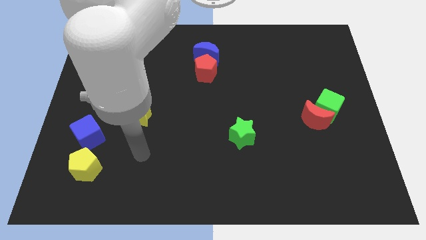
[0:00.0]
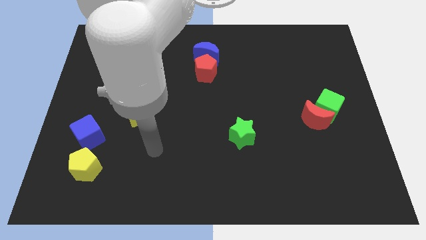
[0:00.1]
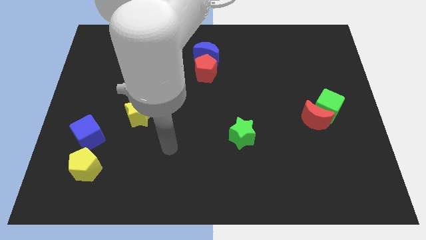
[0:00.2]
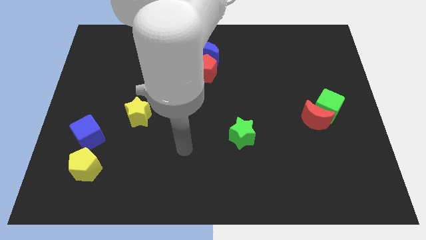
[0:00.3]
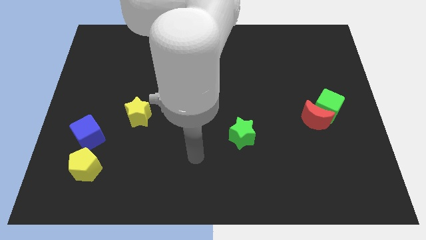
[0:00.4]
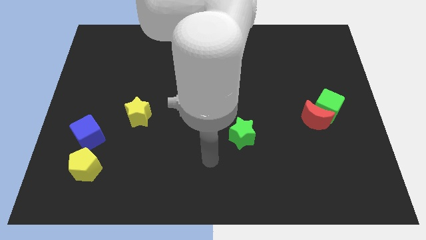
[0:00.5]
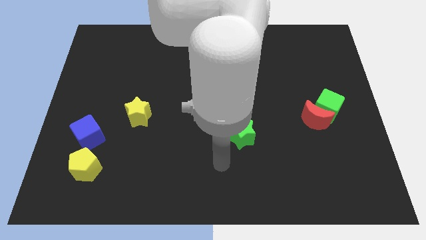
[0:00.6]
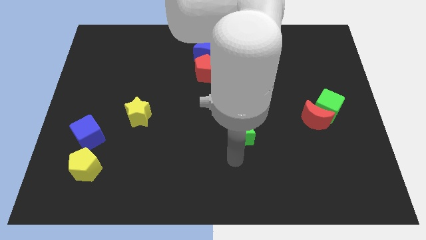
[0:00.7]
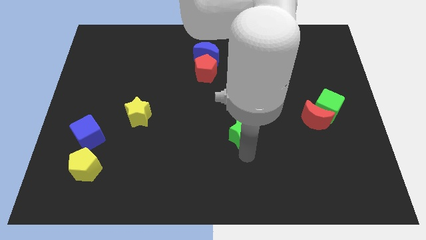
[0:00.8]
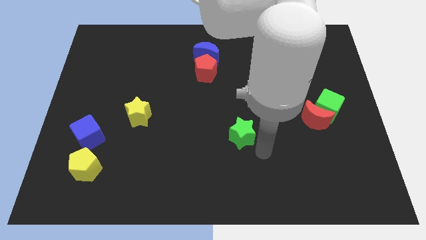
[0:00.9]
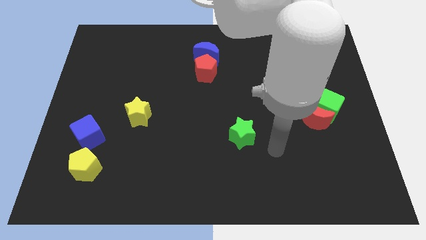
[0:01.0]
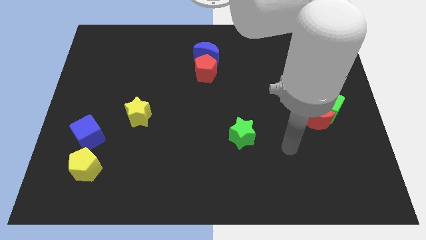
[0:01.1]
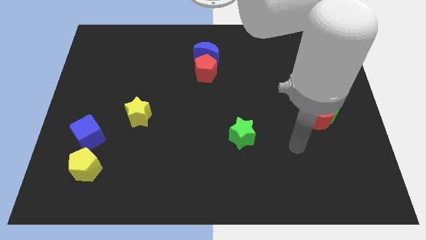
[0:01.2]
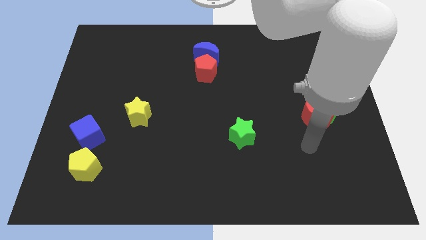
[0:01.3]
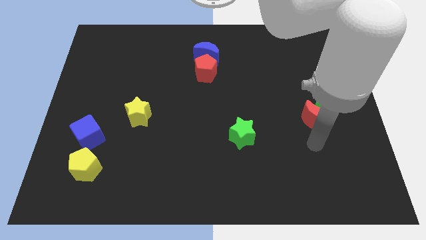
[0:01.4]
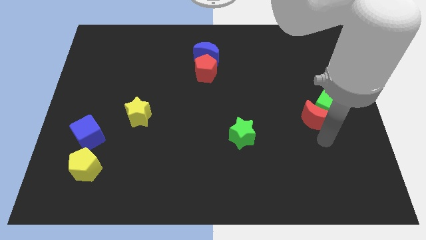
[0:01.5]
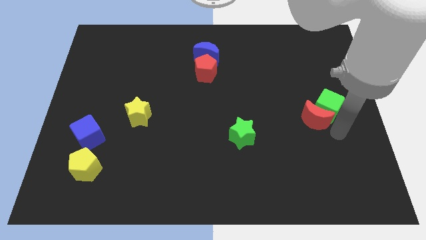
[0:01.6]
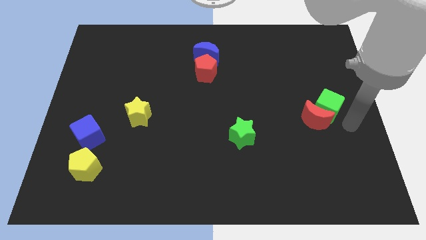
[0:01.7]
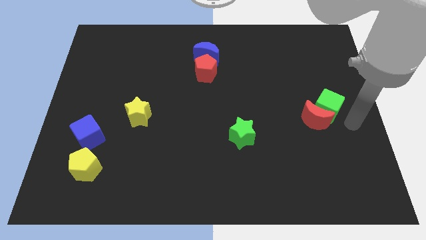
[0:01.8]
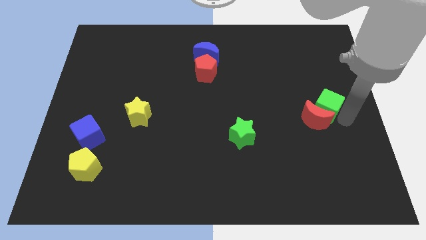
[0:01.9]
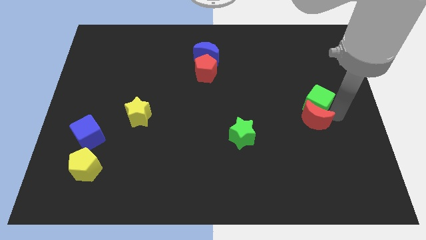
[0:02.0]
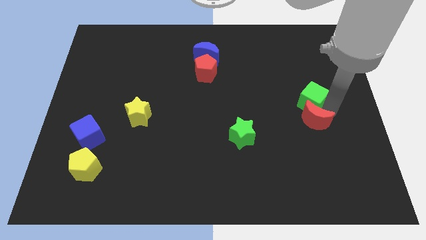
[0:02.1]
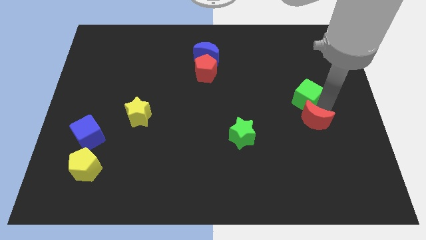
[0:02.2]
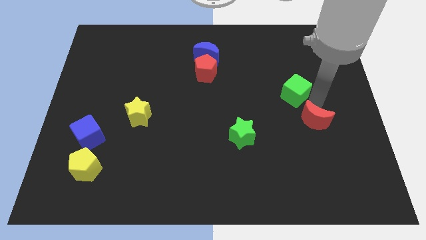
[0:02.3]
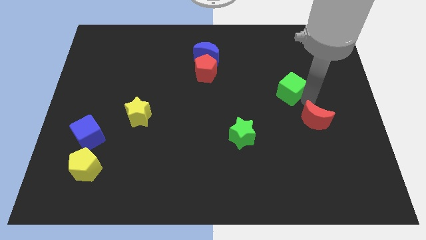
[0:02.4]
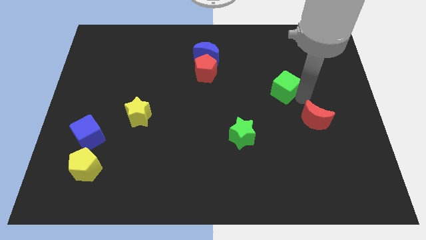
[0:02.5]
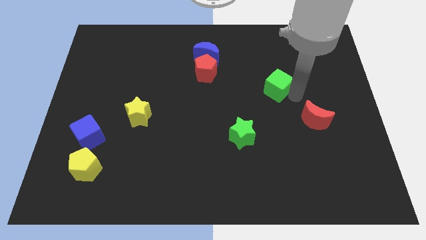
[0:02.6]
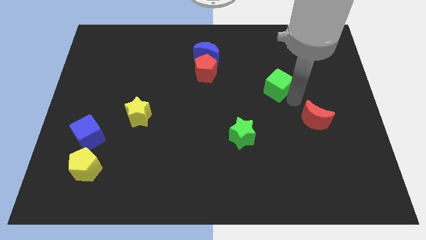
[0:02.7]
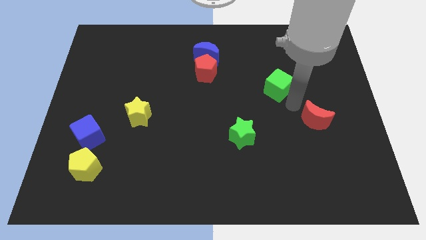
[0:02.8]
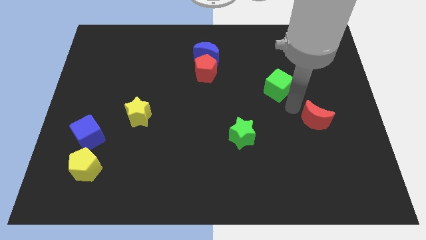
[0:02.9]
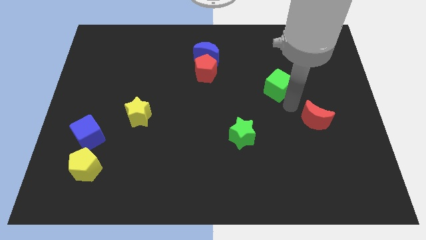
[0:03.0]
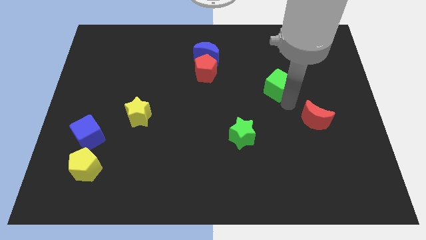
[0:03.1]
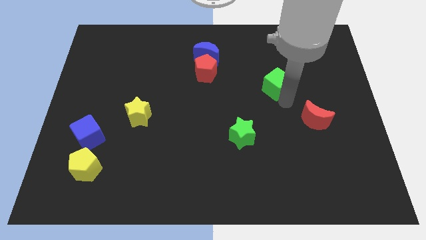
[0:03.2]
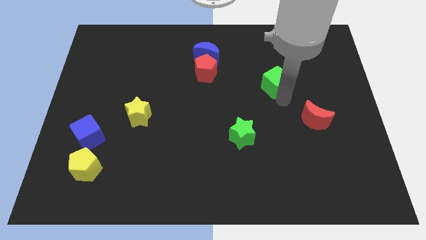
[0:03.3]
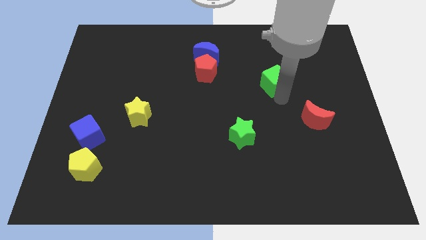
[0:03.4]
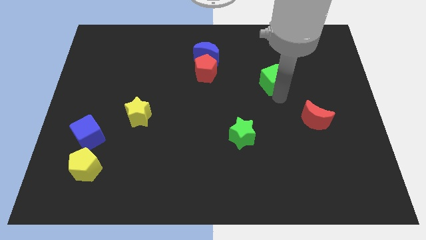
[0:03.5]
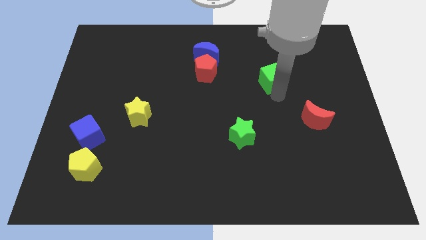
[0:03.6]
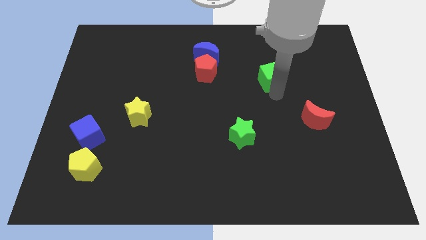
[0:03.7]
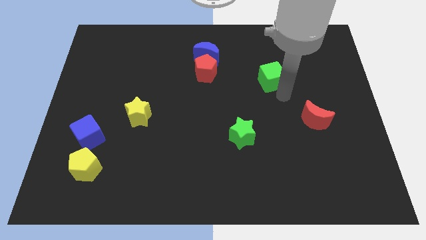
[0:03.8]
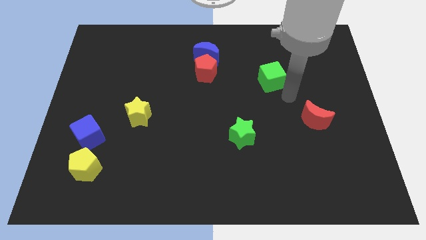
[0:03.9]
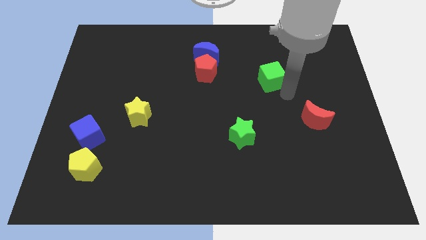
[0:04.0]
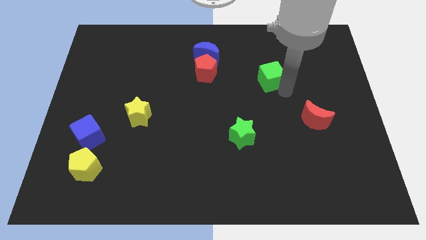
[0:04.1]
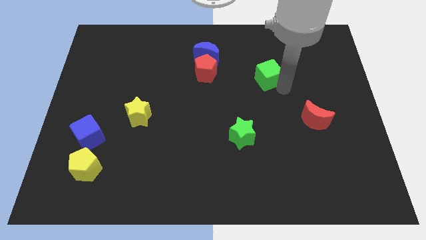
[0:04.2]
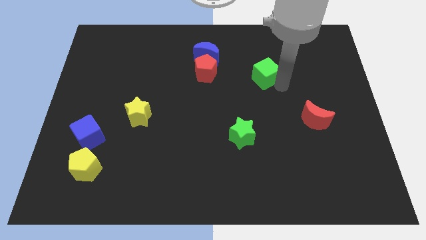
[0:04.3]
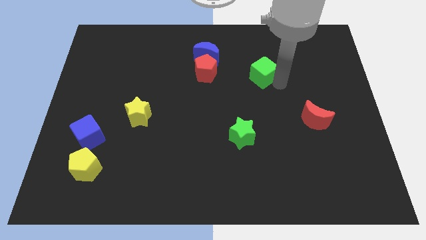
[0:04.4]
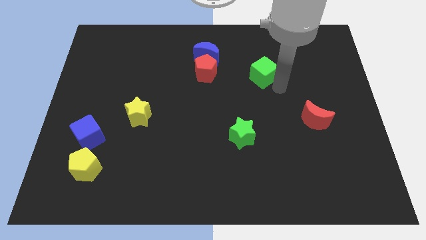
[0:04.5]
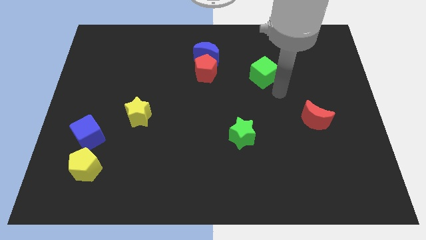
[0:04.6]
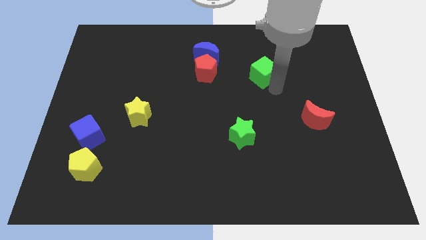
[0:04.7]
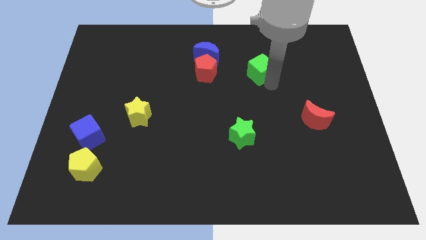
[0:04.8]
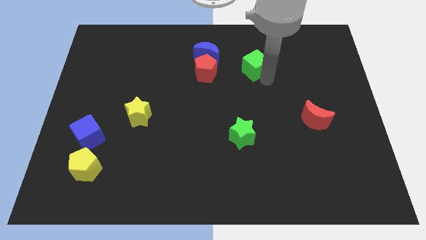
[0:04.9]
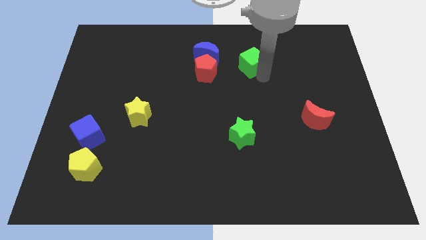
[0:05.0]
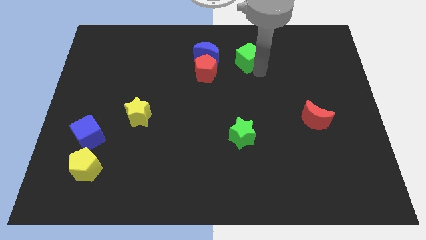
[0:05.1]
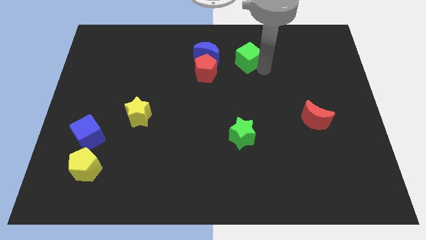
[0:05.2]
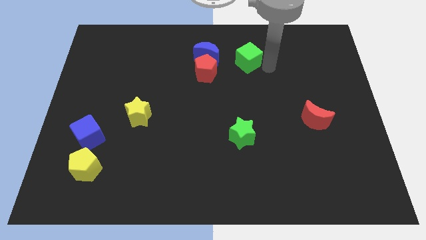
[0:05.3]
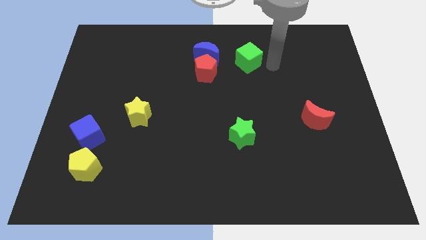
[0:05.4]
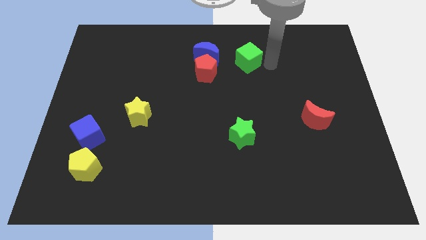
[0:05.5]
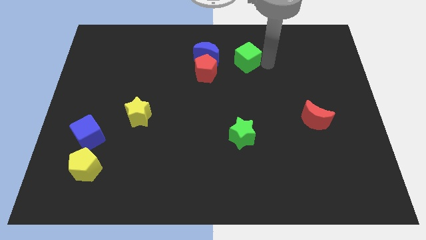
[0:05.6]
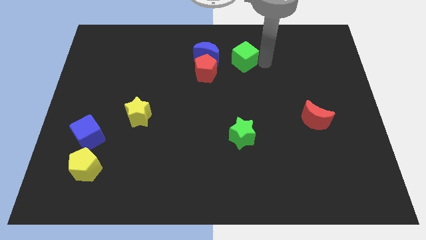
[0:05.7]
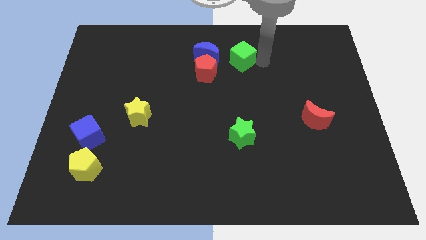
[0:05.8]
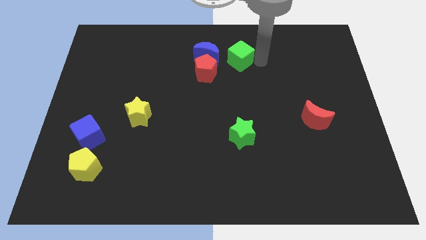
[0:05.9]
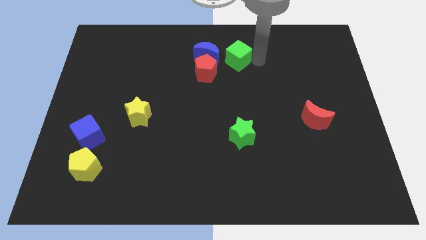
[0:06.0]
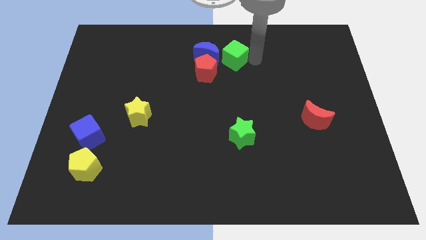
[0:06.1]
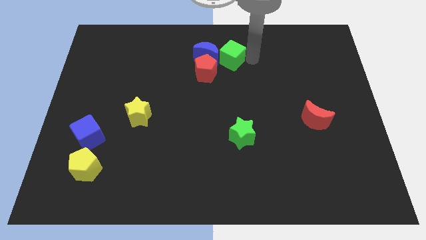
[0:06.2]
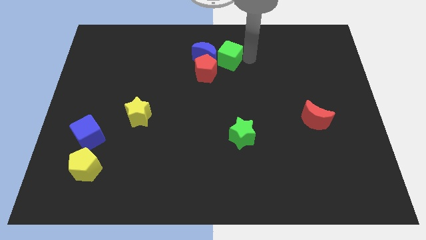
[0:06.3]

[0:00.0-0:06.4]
slide the green cube next to the blue moon

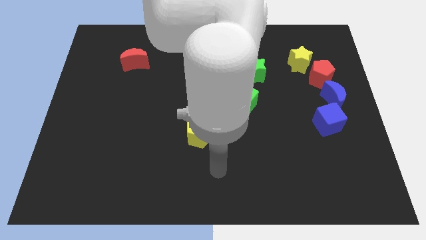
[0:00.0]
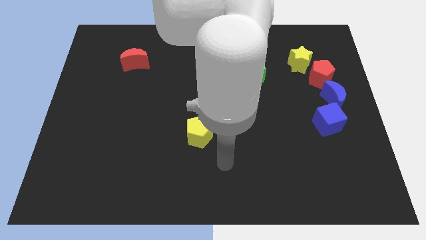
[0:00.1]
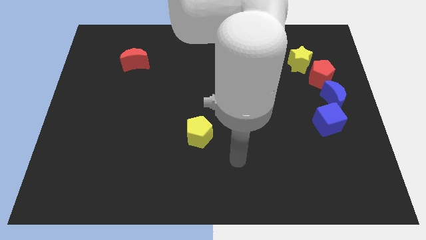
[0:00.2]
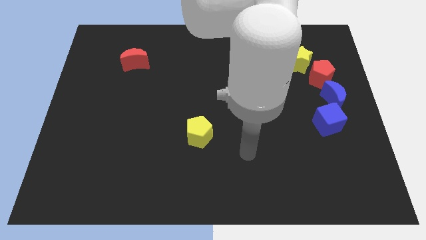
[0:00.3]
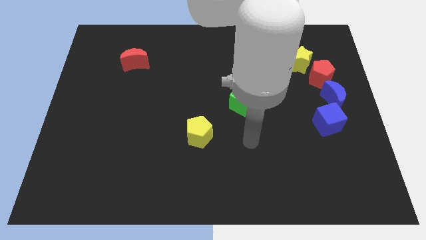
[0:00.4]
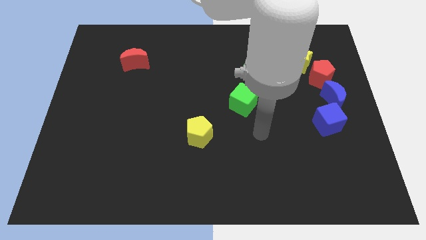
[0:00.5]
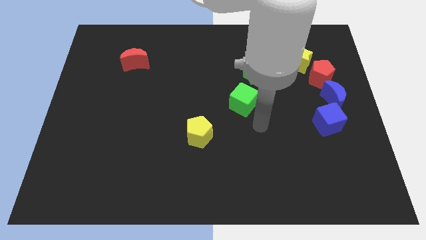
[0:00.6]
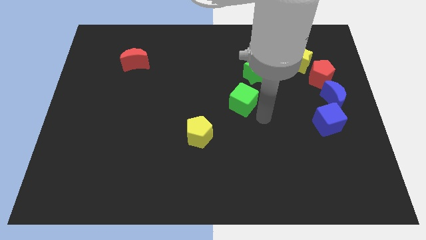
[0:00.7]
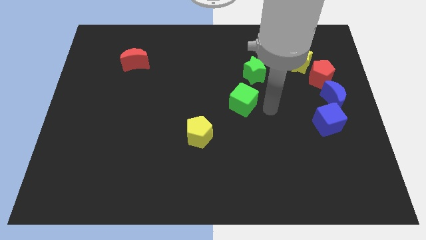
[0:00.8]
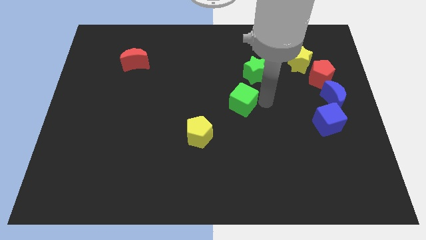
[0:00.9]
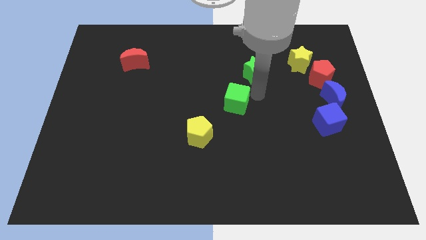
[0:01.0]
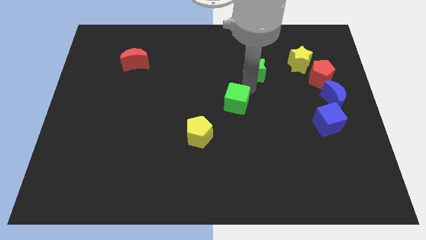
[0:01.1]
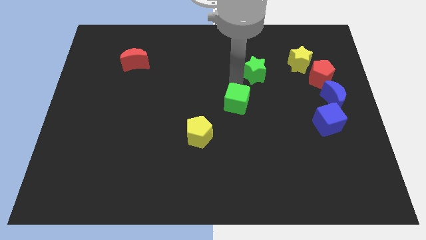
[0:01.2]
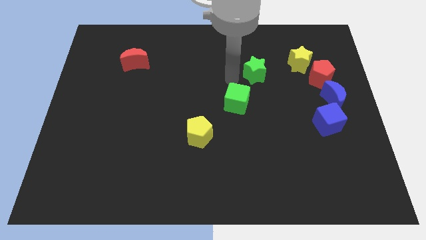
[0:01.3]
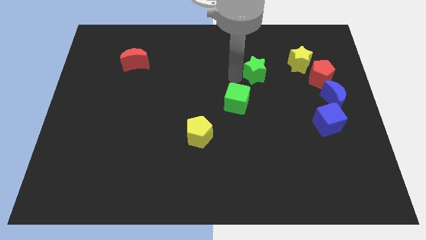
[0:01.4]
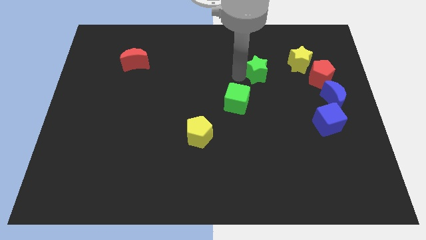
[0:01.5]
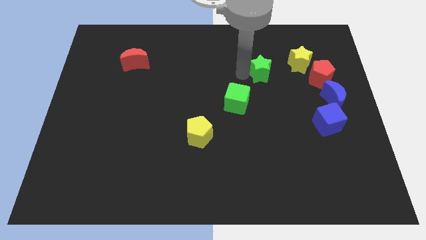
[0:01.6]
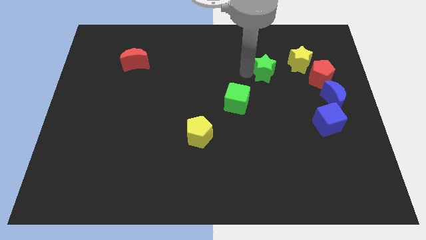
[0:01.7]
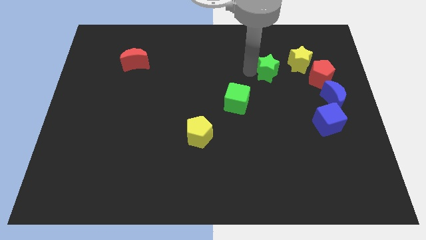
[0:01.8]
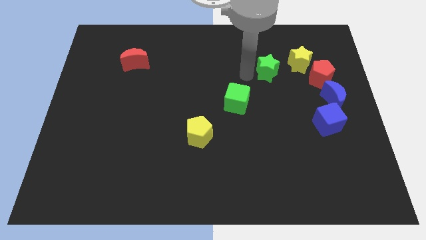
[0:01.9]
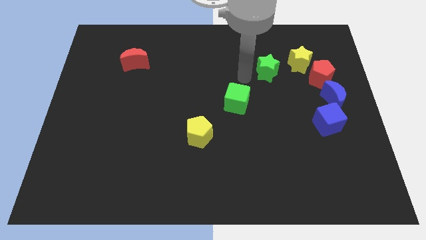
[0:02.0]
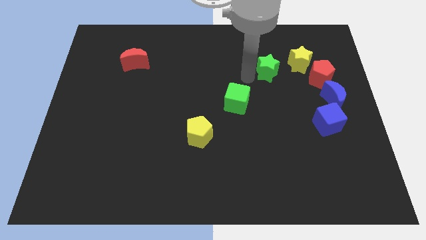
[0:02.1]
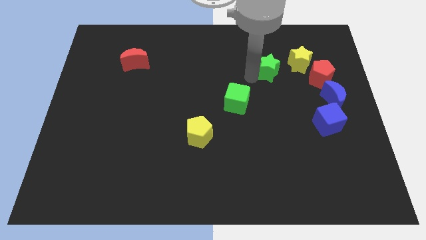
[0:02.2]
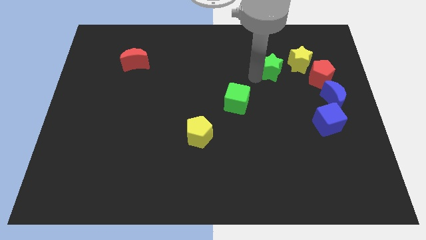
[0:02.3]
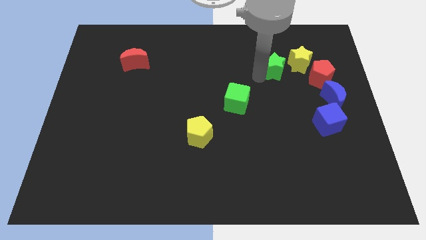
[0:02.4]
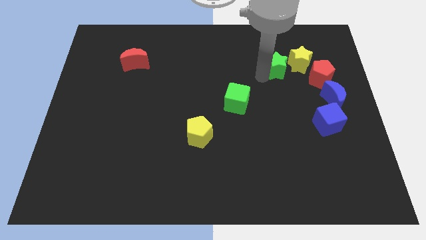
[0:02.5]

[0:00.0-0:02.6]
move the green star to the yellow star
